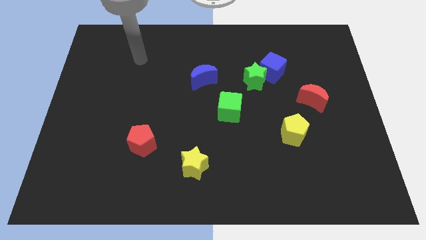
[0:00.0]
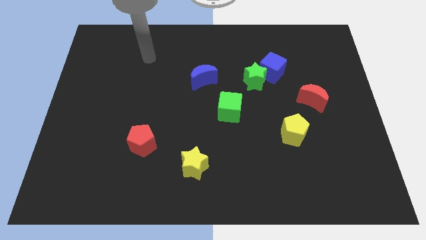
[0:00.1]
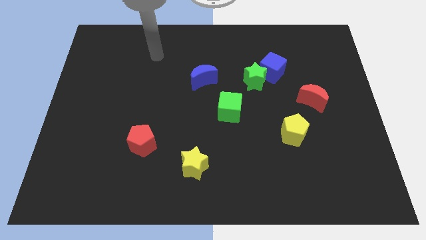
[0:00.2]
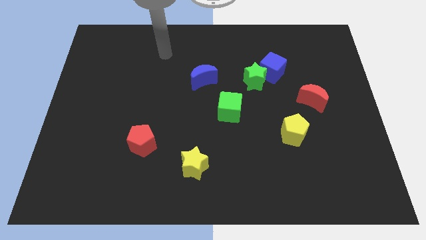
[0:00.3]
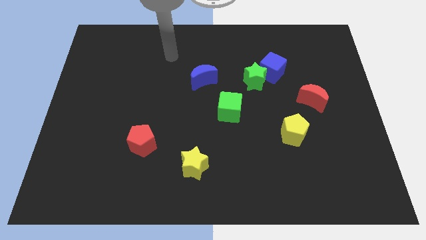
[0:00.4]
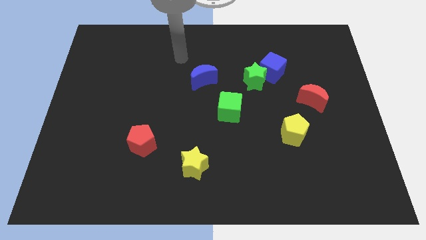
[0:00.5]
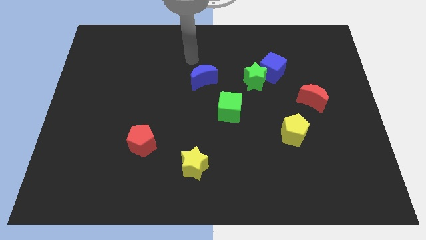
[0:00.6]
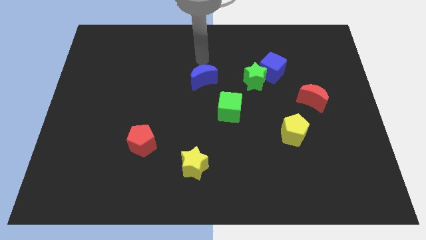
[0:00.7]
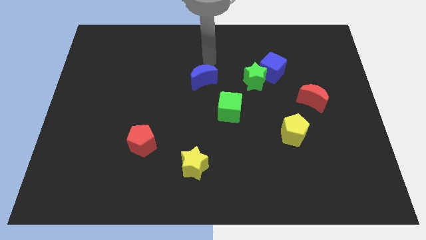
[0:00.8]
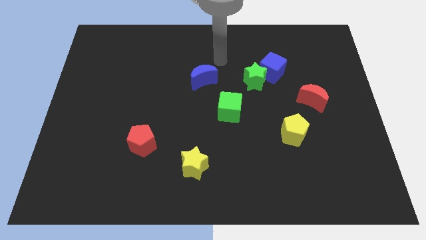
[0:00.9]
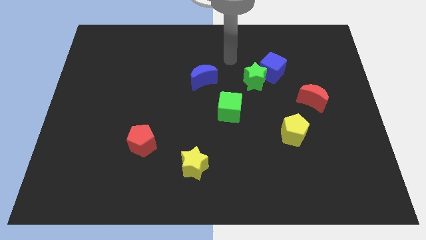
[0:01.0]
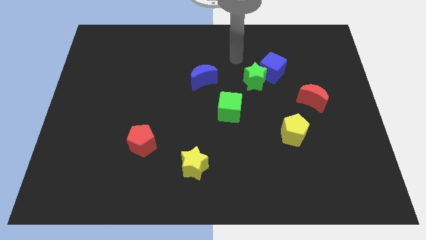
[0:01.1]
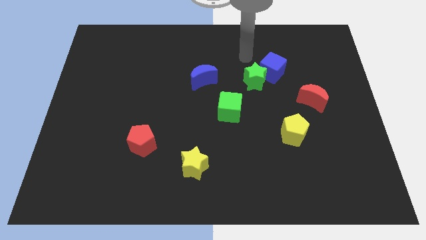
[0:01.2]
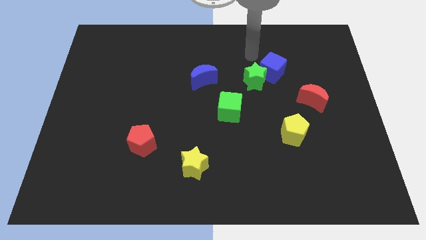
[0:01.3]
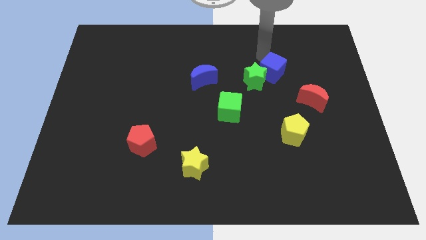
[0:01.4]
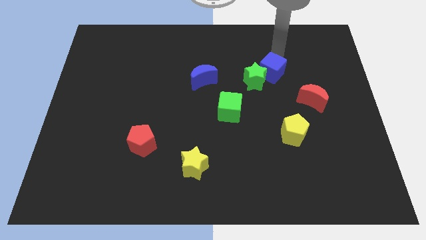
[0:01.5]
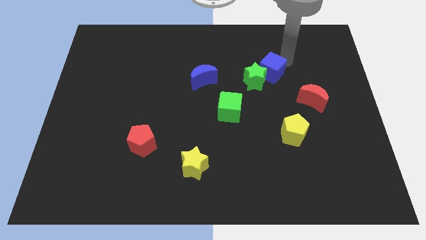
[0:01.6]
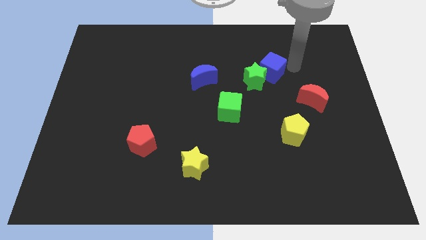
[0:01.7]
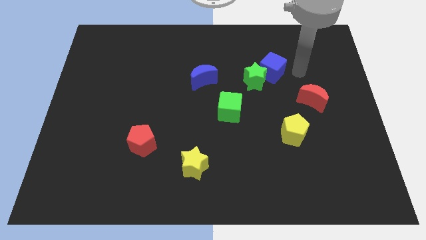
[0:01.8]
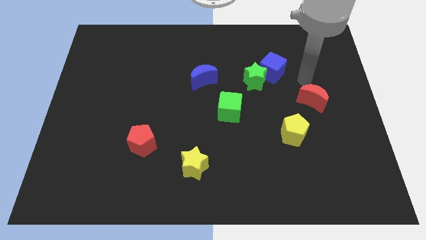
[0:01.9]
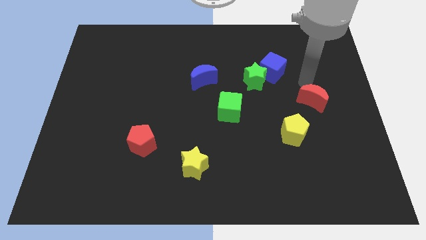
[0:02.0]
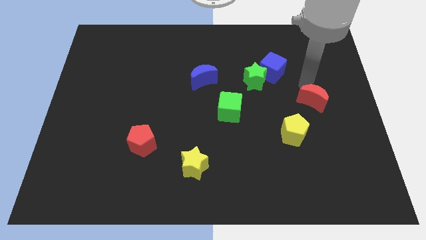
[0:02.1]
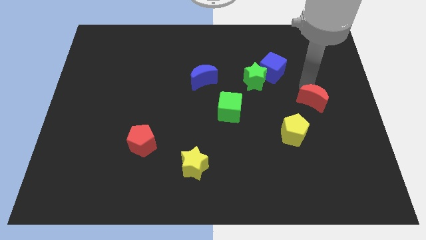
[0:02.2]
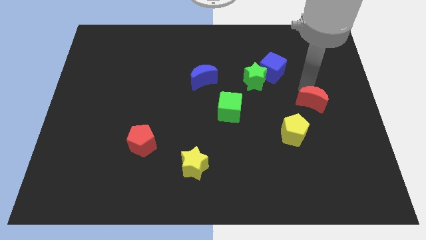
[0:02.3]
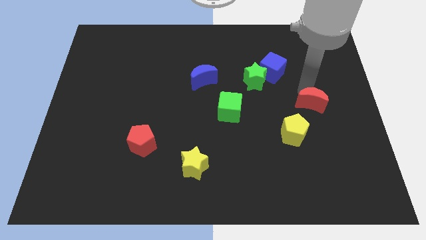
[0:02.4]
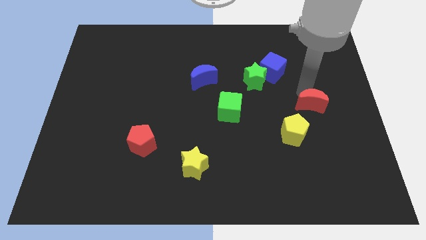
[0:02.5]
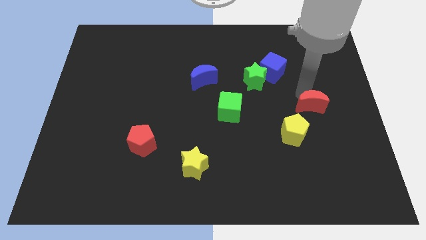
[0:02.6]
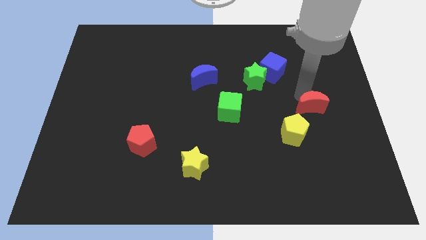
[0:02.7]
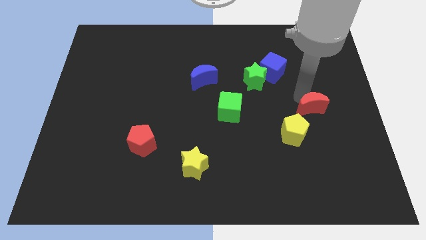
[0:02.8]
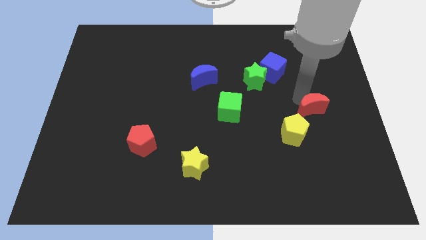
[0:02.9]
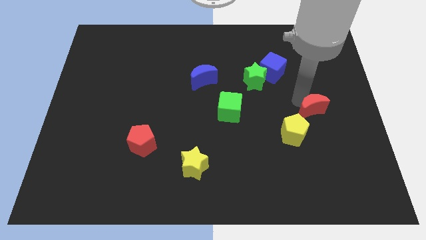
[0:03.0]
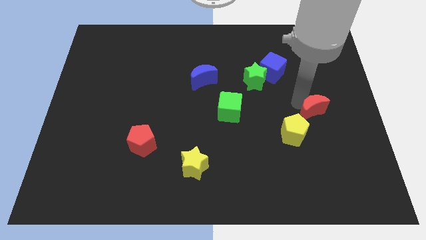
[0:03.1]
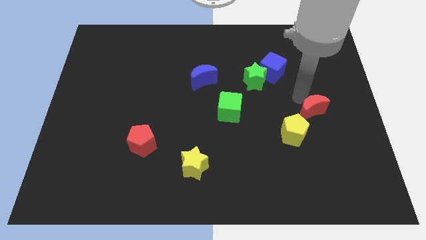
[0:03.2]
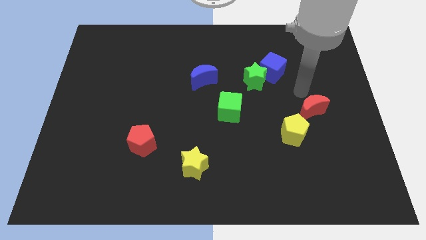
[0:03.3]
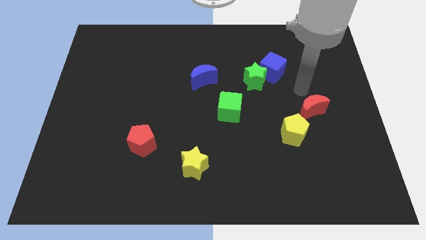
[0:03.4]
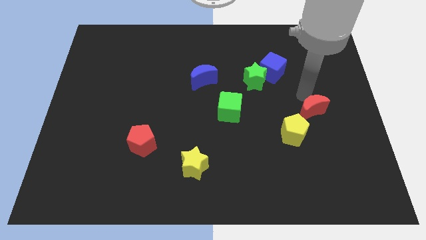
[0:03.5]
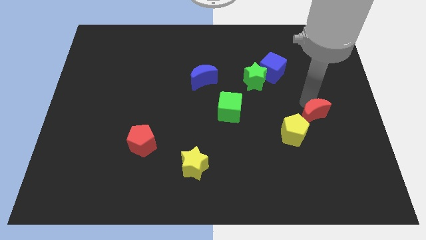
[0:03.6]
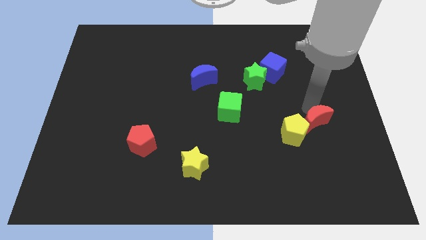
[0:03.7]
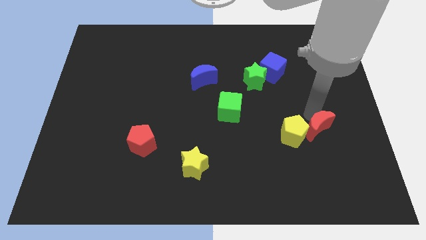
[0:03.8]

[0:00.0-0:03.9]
push the red moon slightly down

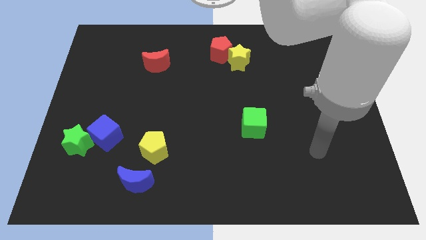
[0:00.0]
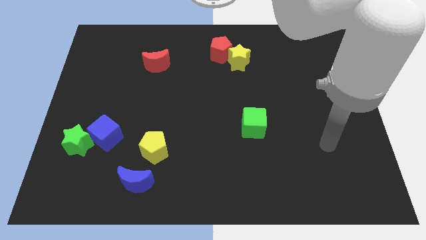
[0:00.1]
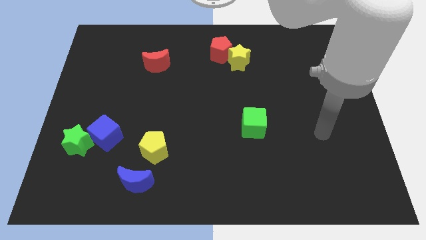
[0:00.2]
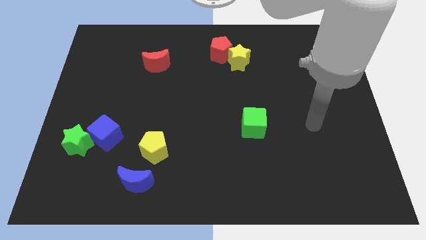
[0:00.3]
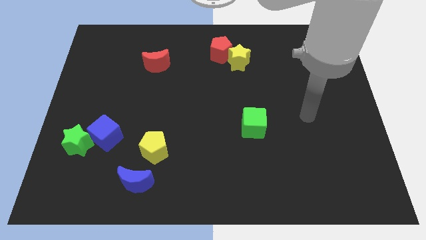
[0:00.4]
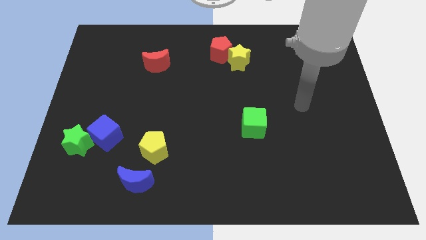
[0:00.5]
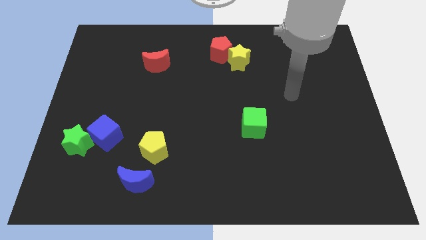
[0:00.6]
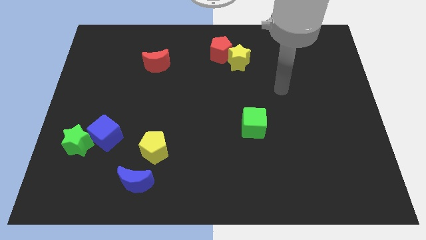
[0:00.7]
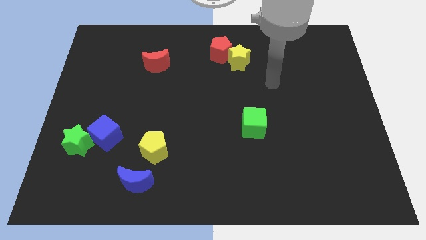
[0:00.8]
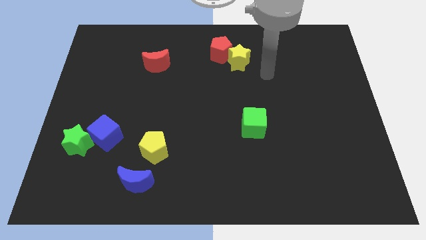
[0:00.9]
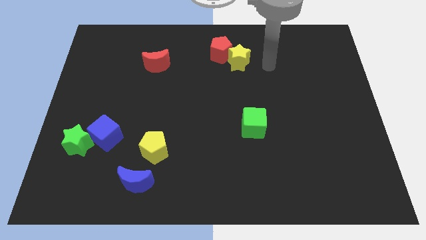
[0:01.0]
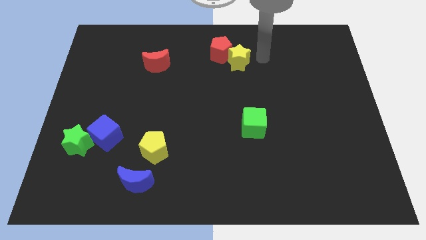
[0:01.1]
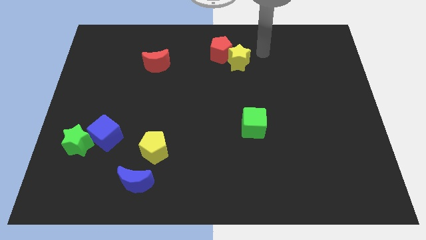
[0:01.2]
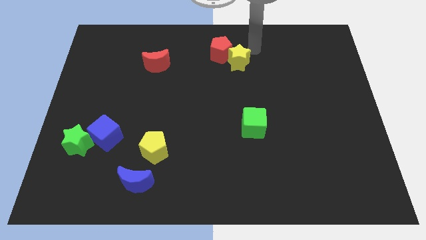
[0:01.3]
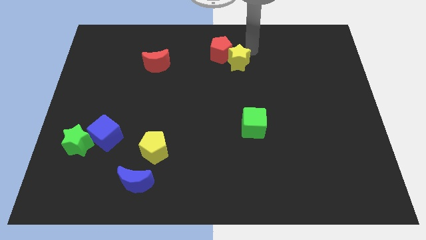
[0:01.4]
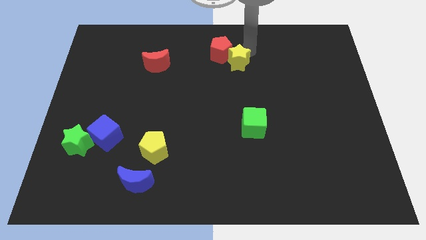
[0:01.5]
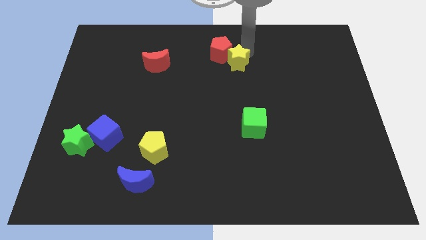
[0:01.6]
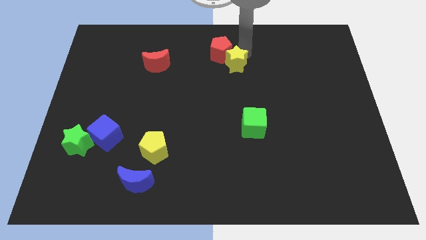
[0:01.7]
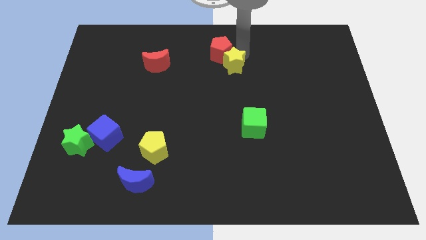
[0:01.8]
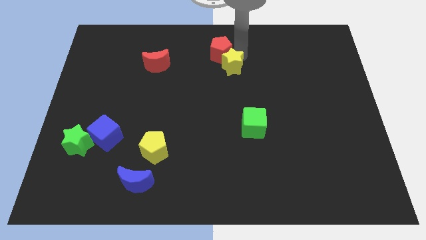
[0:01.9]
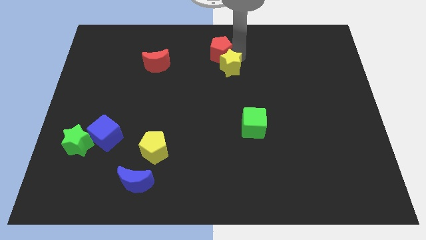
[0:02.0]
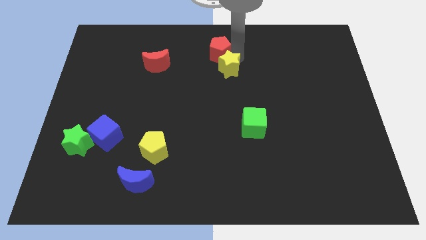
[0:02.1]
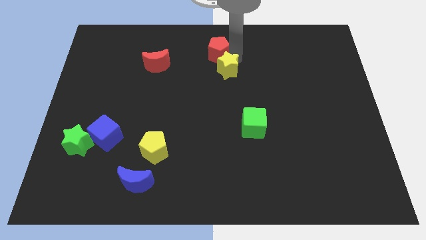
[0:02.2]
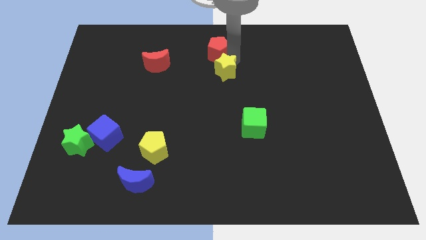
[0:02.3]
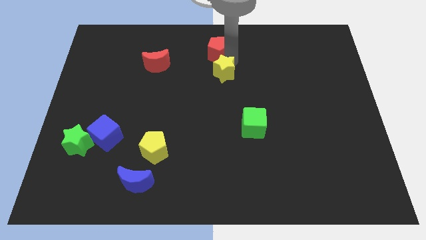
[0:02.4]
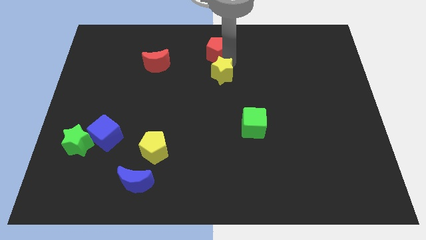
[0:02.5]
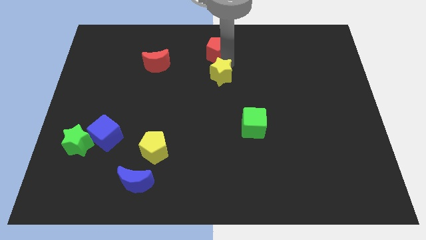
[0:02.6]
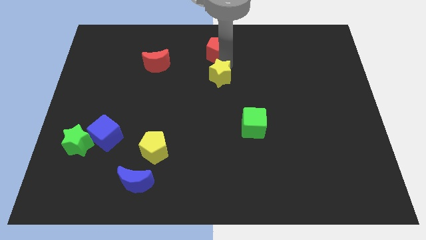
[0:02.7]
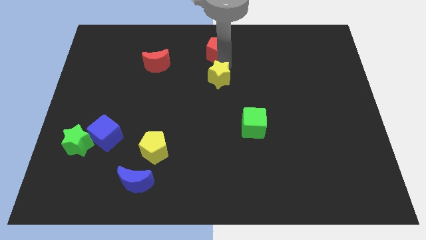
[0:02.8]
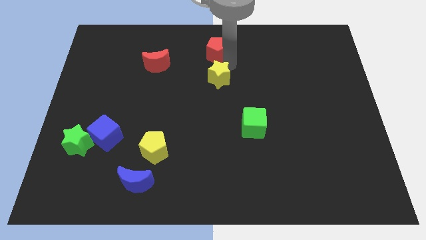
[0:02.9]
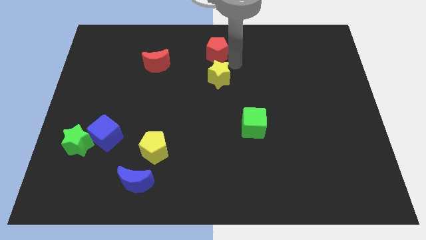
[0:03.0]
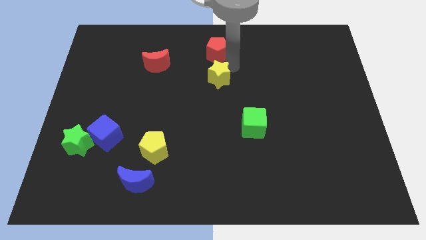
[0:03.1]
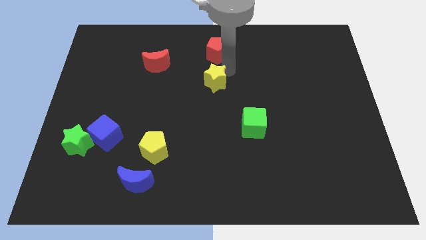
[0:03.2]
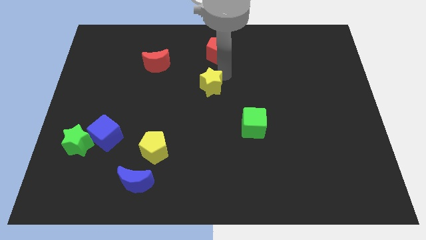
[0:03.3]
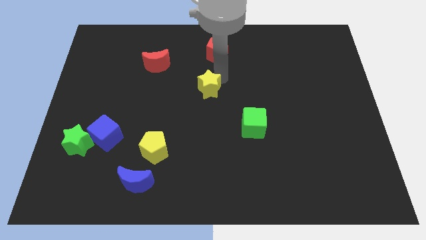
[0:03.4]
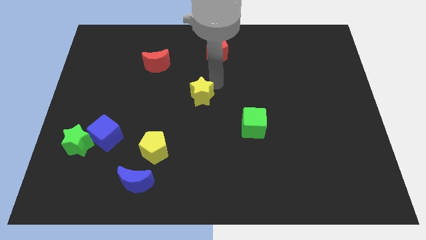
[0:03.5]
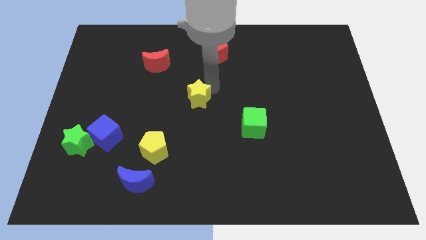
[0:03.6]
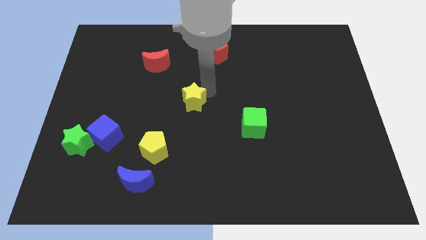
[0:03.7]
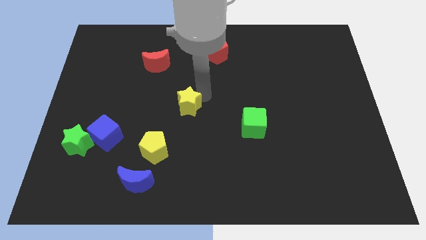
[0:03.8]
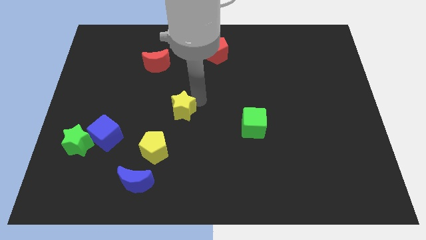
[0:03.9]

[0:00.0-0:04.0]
move the yellow star diagonally downwards and to the left

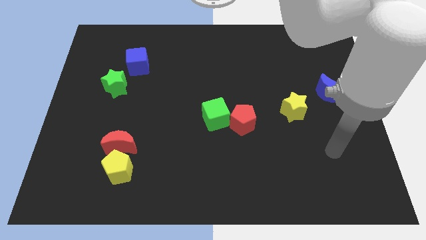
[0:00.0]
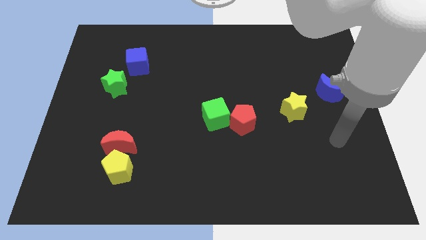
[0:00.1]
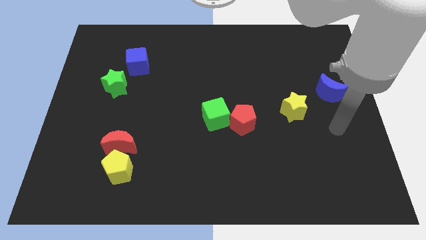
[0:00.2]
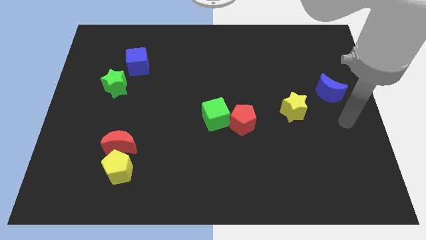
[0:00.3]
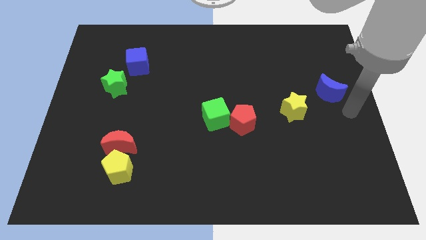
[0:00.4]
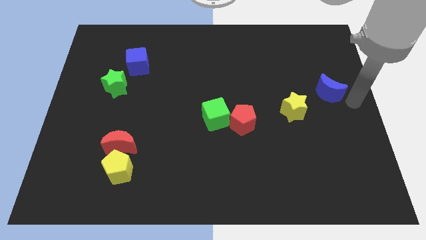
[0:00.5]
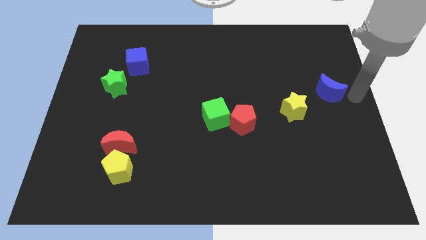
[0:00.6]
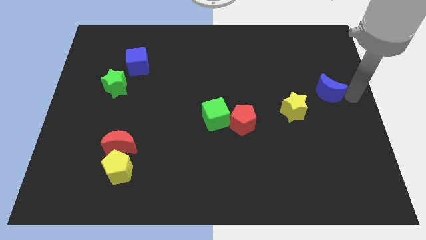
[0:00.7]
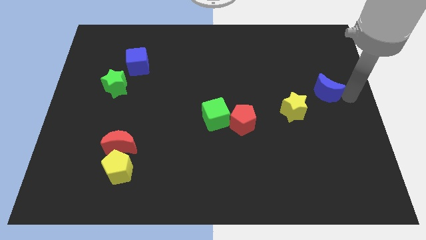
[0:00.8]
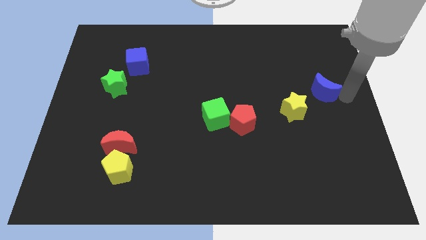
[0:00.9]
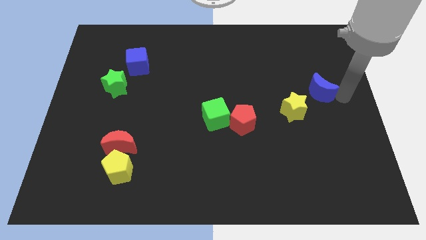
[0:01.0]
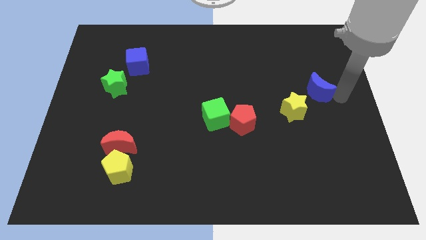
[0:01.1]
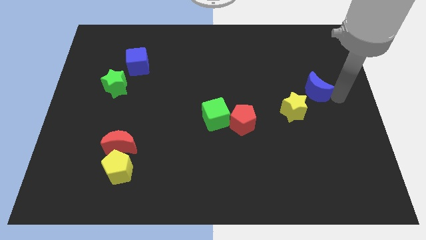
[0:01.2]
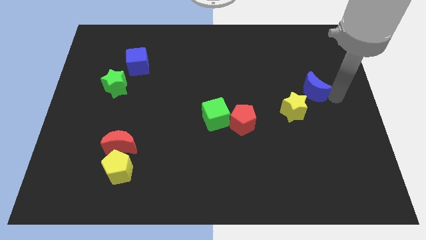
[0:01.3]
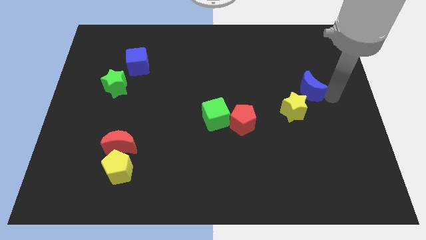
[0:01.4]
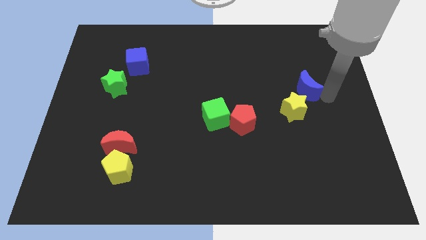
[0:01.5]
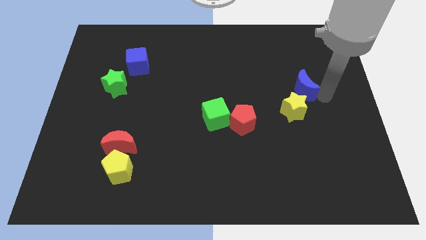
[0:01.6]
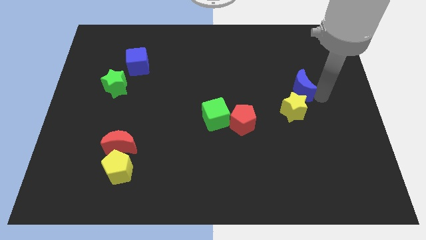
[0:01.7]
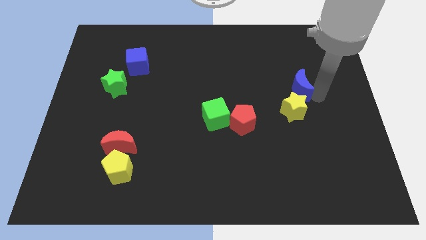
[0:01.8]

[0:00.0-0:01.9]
slightly push the blue moon to the left
